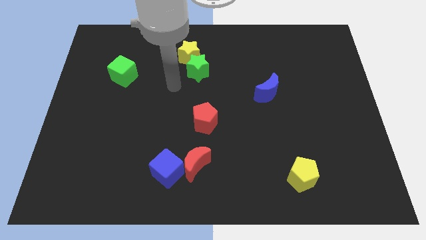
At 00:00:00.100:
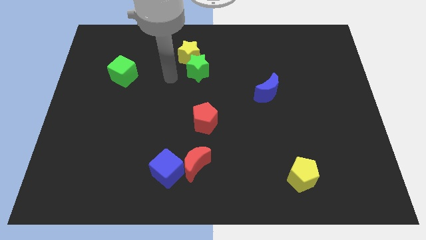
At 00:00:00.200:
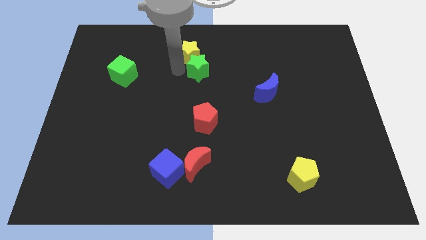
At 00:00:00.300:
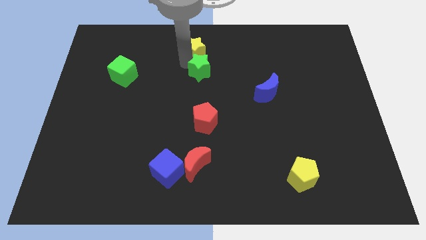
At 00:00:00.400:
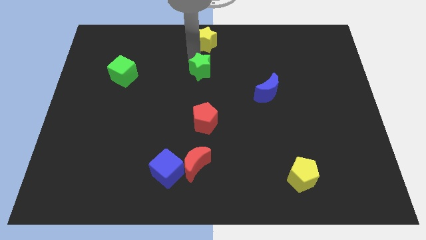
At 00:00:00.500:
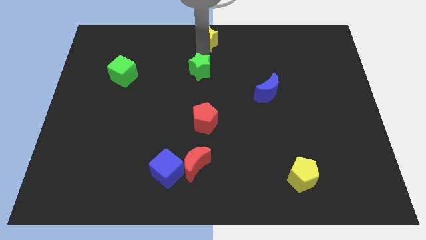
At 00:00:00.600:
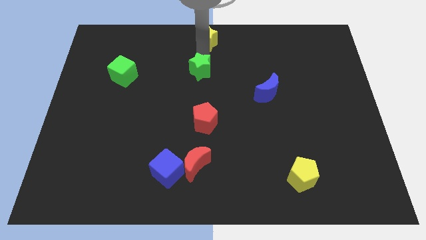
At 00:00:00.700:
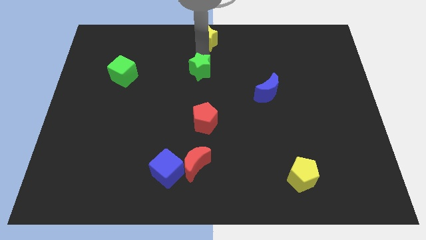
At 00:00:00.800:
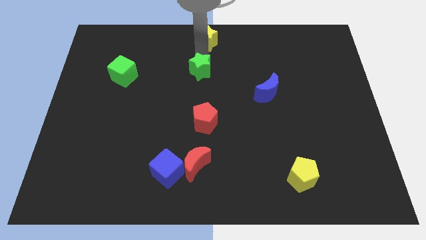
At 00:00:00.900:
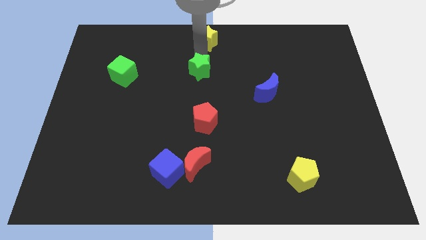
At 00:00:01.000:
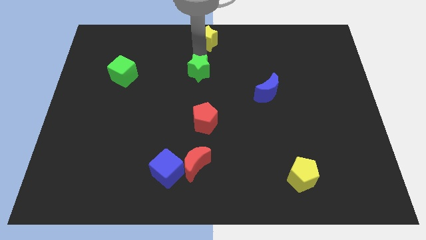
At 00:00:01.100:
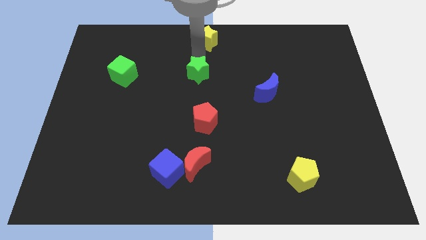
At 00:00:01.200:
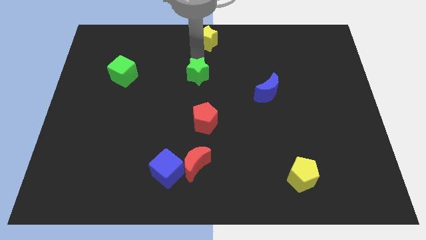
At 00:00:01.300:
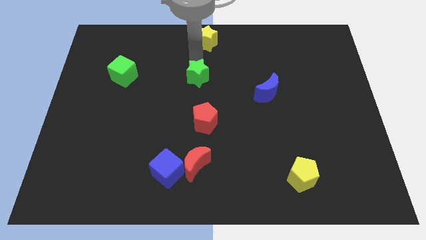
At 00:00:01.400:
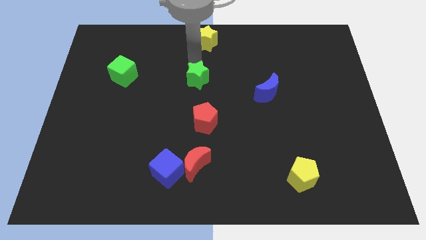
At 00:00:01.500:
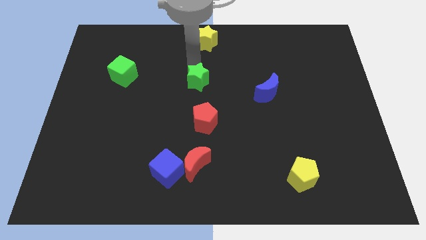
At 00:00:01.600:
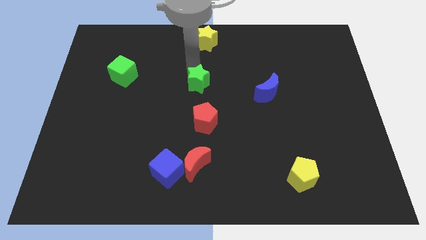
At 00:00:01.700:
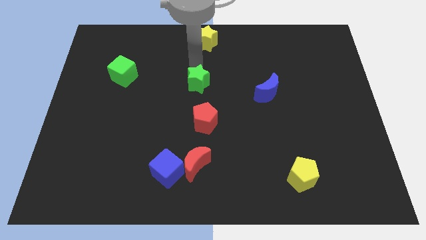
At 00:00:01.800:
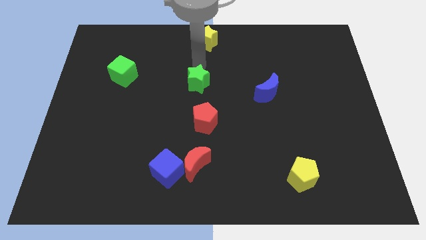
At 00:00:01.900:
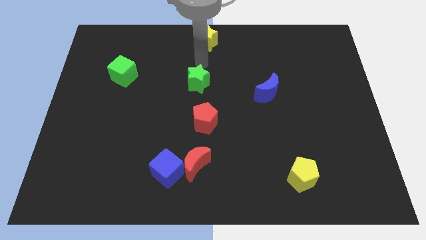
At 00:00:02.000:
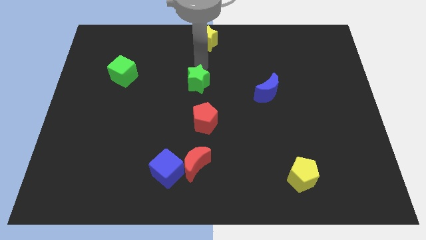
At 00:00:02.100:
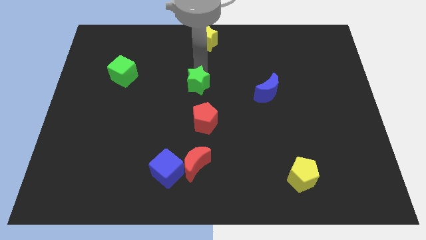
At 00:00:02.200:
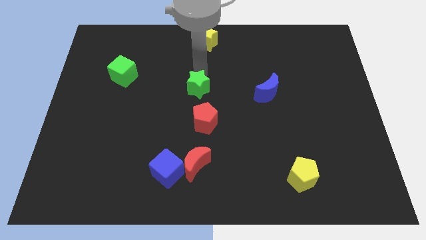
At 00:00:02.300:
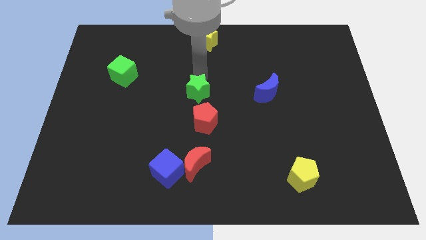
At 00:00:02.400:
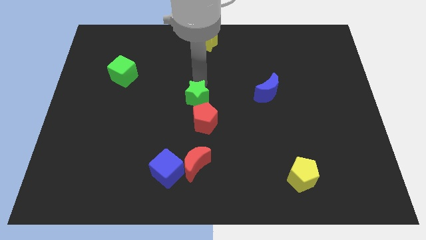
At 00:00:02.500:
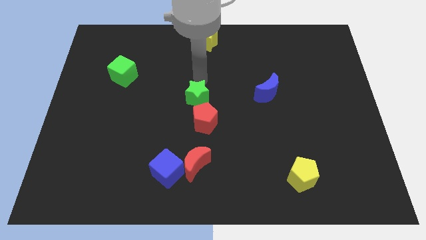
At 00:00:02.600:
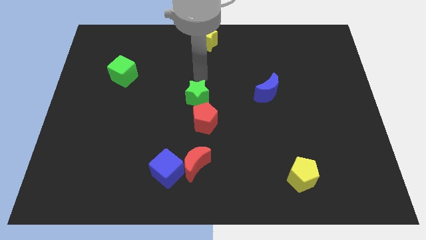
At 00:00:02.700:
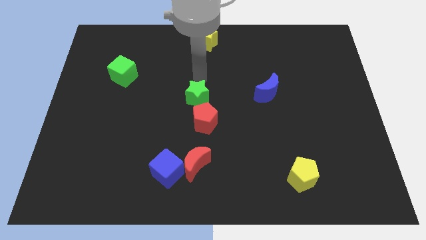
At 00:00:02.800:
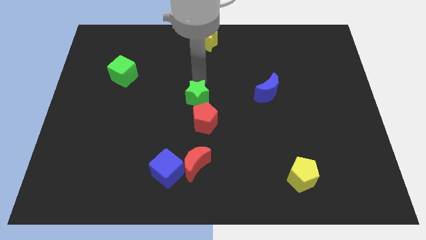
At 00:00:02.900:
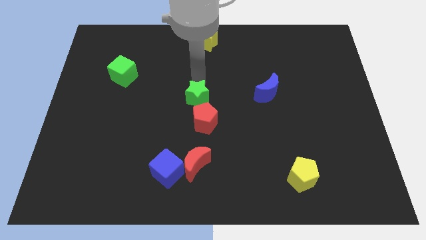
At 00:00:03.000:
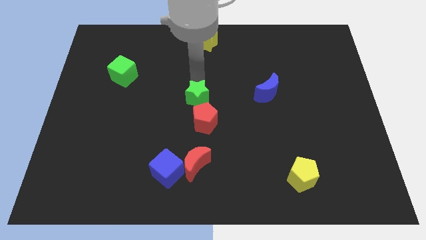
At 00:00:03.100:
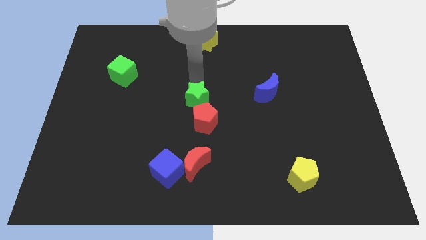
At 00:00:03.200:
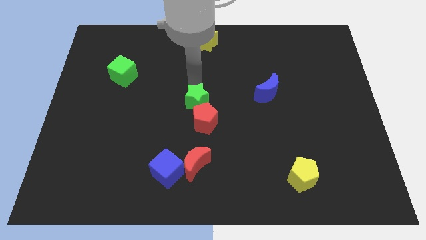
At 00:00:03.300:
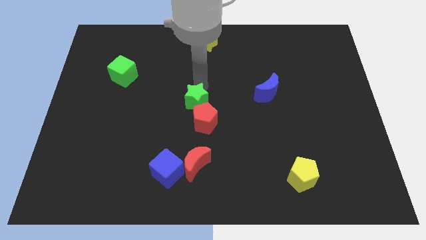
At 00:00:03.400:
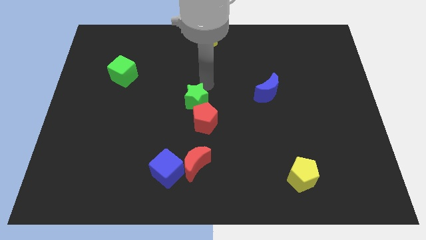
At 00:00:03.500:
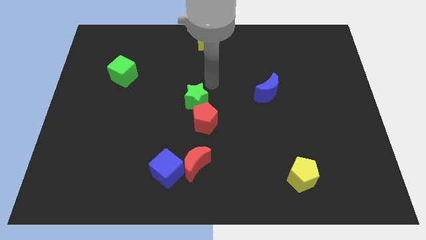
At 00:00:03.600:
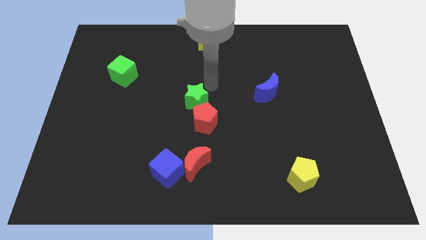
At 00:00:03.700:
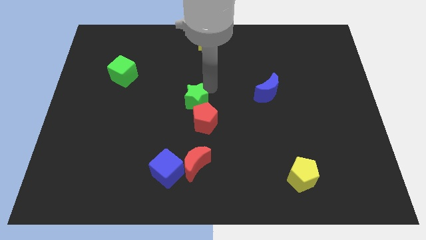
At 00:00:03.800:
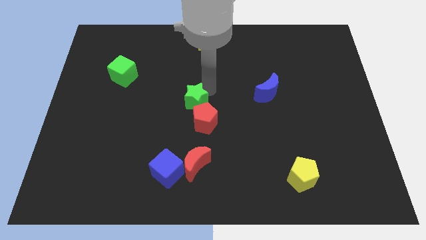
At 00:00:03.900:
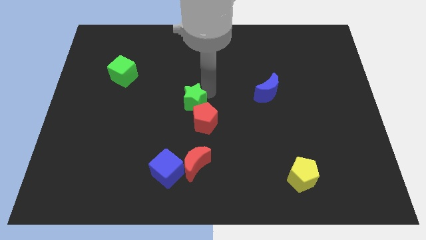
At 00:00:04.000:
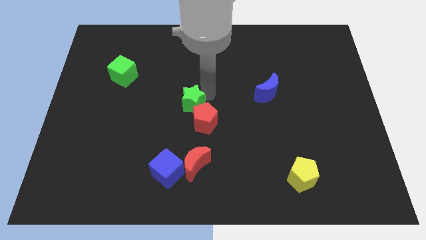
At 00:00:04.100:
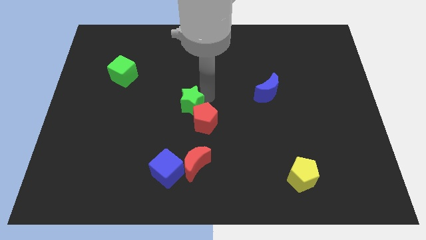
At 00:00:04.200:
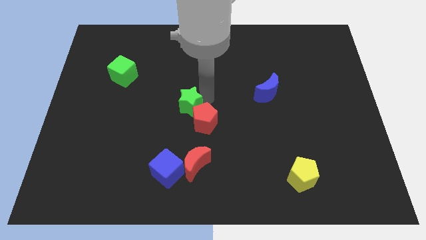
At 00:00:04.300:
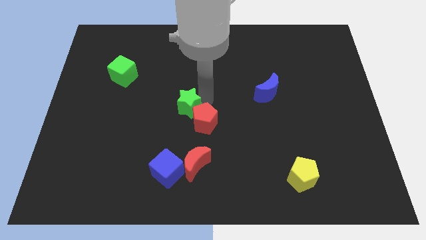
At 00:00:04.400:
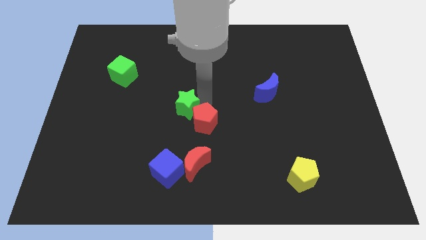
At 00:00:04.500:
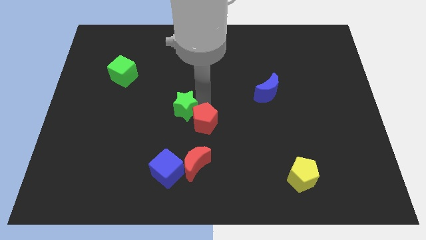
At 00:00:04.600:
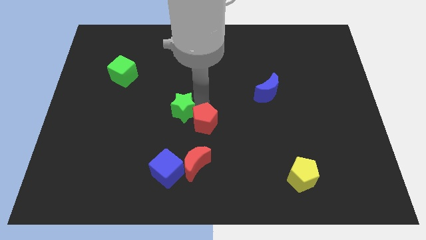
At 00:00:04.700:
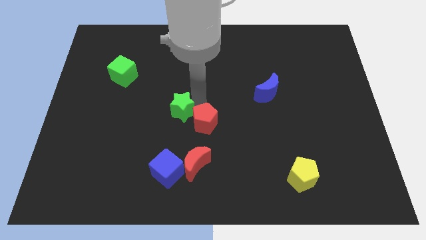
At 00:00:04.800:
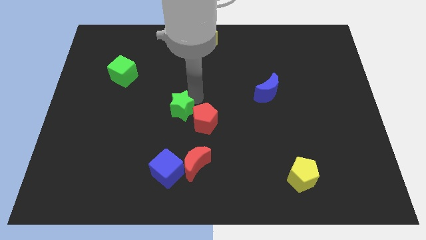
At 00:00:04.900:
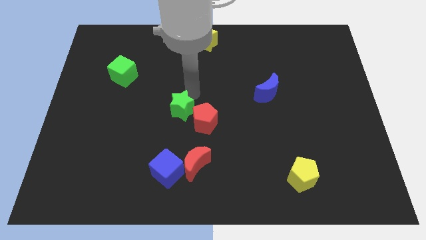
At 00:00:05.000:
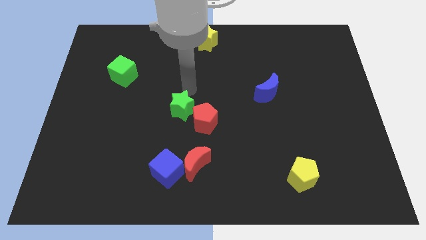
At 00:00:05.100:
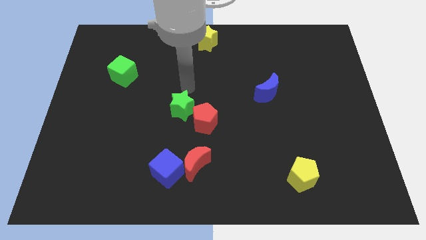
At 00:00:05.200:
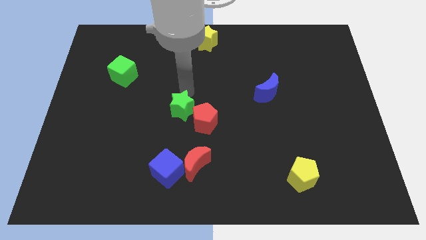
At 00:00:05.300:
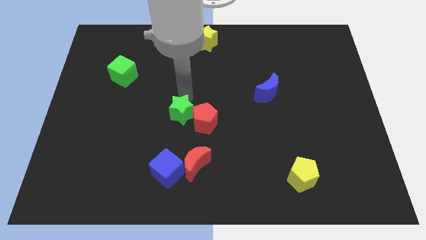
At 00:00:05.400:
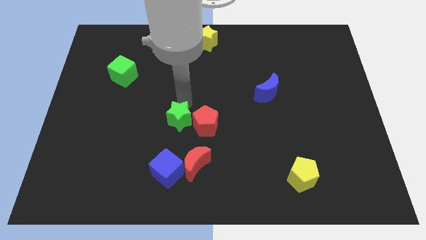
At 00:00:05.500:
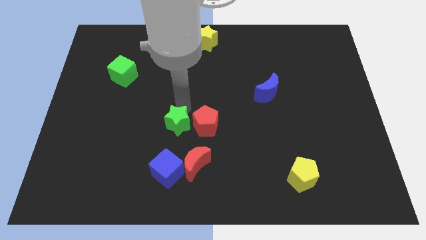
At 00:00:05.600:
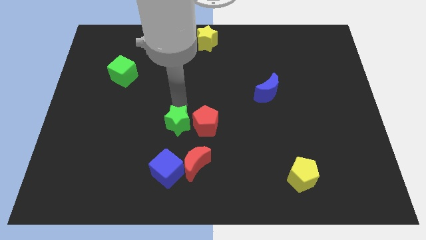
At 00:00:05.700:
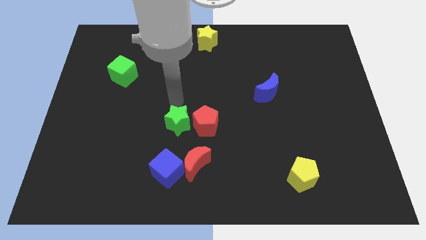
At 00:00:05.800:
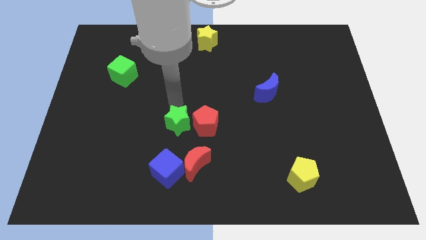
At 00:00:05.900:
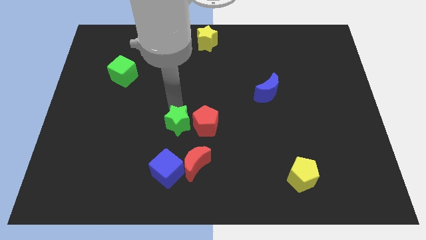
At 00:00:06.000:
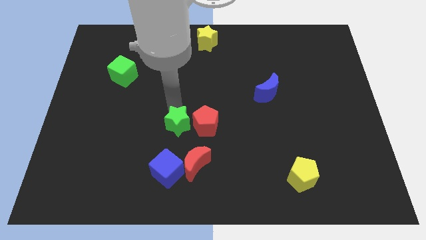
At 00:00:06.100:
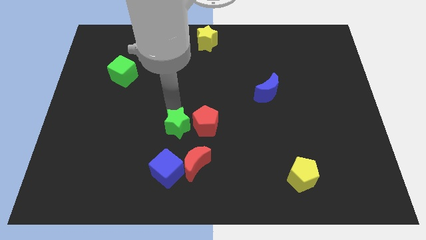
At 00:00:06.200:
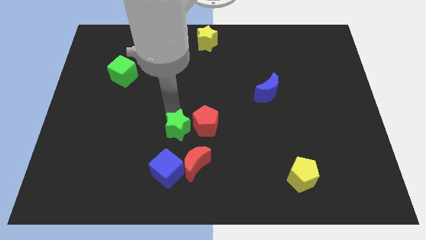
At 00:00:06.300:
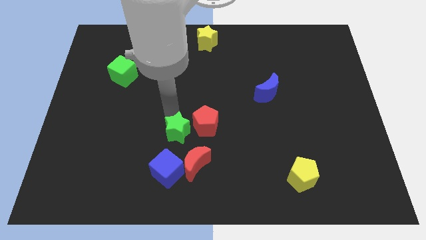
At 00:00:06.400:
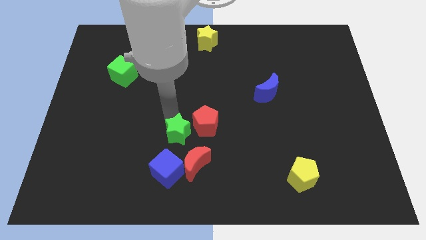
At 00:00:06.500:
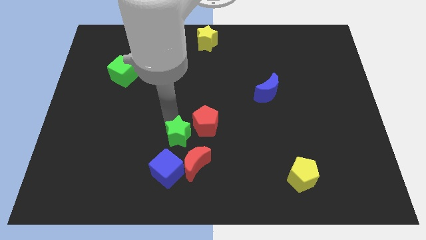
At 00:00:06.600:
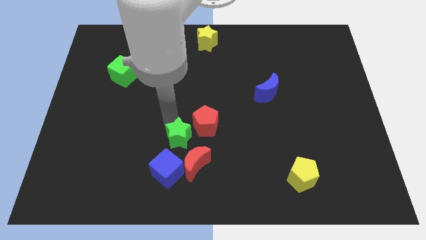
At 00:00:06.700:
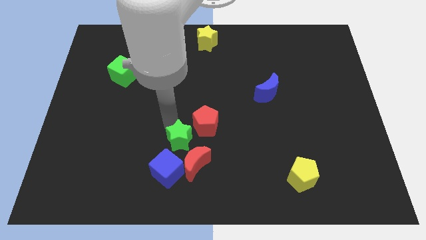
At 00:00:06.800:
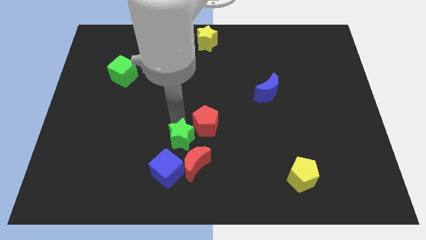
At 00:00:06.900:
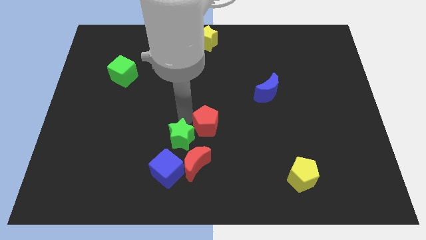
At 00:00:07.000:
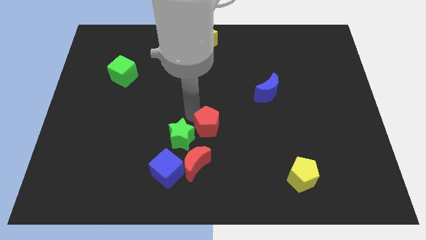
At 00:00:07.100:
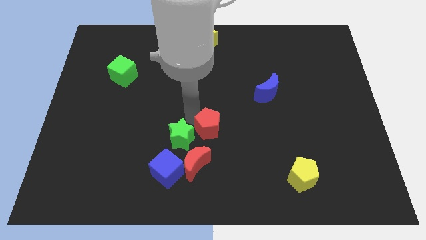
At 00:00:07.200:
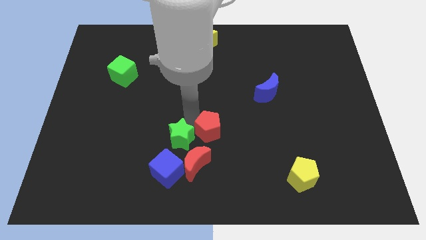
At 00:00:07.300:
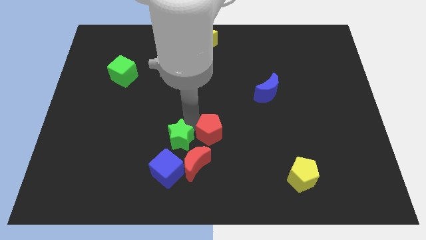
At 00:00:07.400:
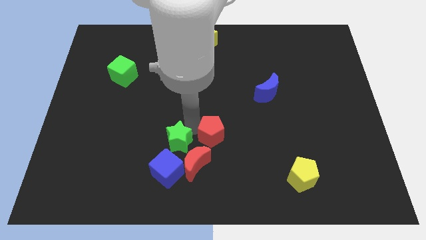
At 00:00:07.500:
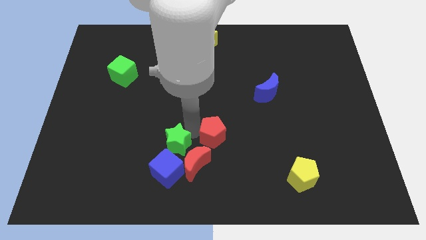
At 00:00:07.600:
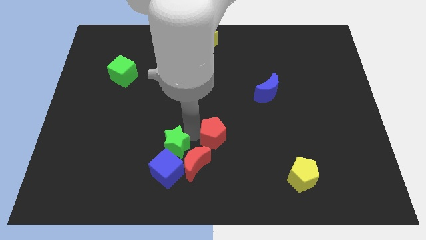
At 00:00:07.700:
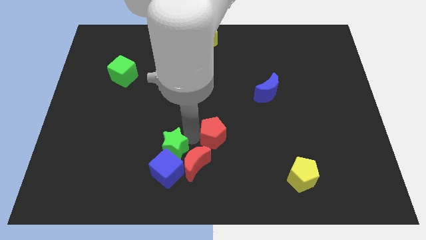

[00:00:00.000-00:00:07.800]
push the green star towards the blue cube
